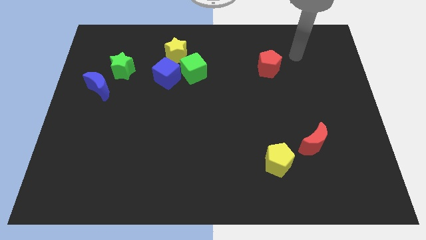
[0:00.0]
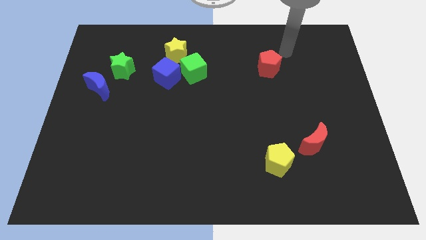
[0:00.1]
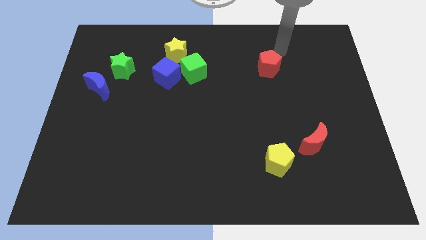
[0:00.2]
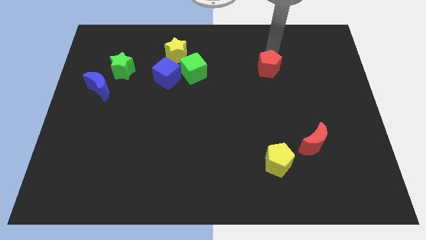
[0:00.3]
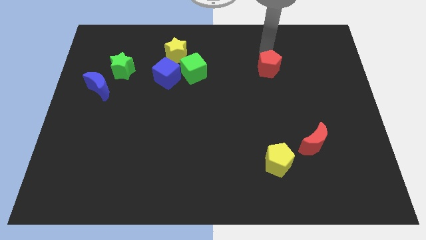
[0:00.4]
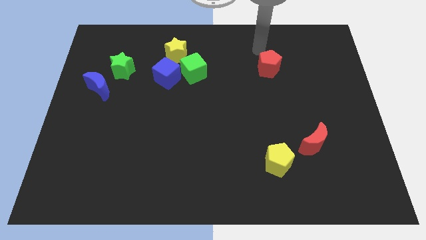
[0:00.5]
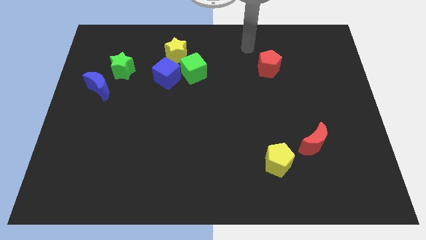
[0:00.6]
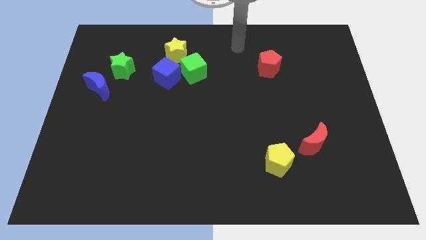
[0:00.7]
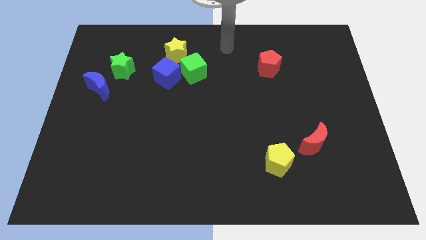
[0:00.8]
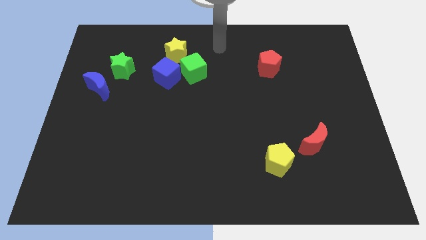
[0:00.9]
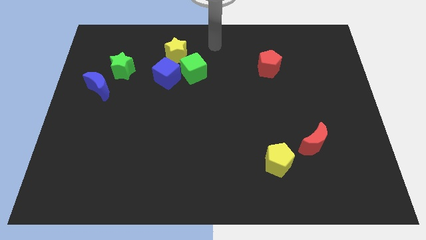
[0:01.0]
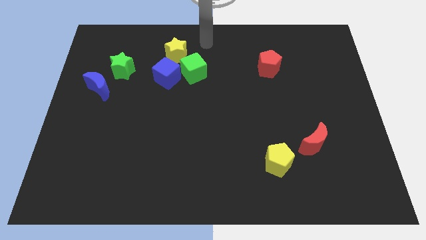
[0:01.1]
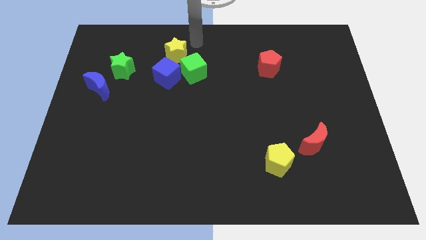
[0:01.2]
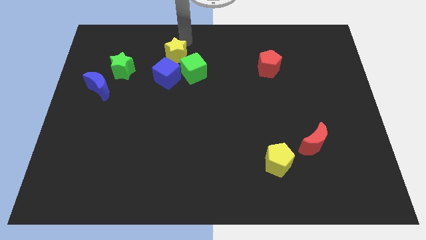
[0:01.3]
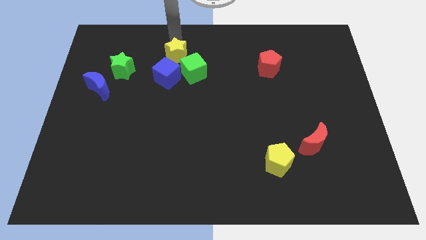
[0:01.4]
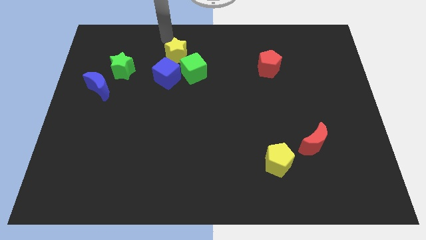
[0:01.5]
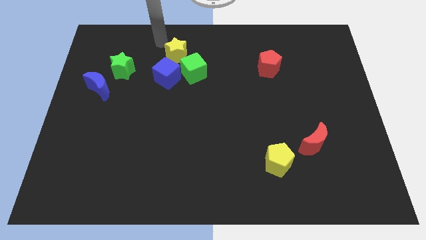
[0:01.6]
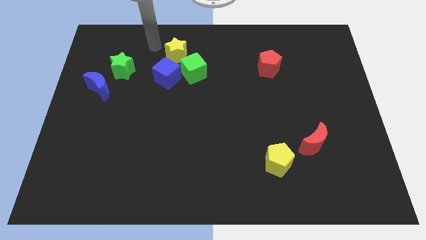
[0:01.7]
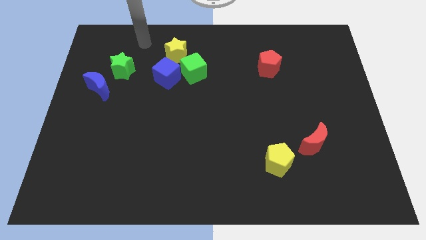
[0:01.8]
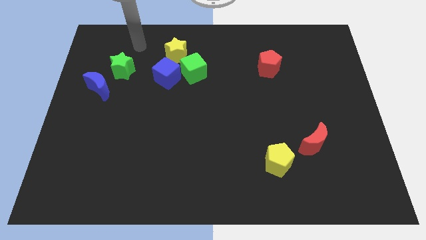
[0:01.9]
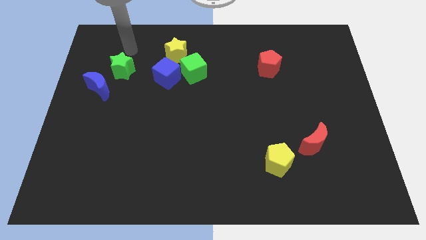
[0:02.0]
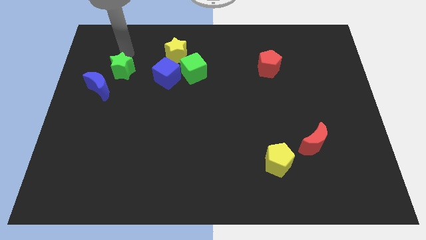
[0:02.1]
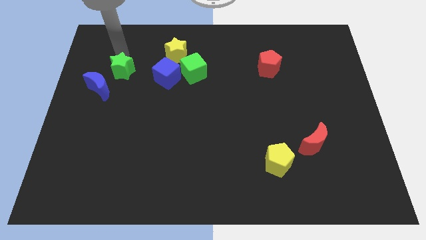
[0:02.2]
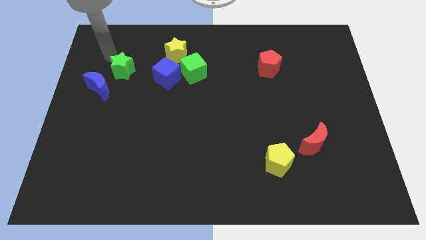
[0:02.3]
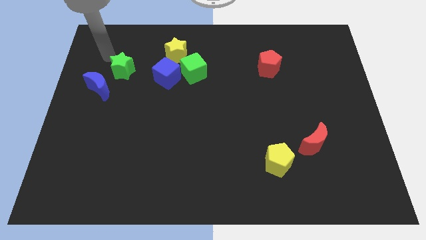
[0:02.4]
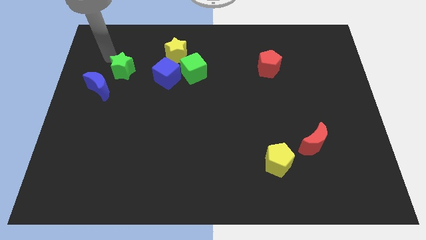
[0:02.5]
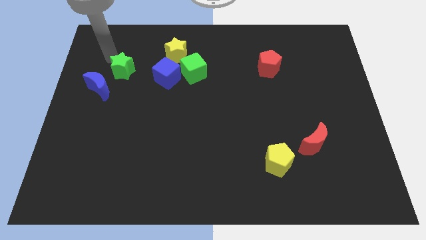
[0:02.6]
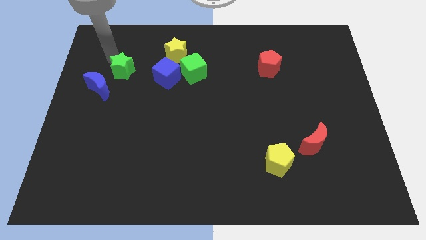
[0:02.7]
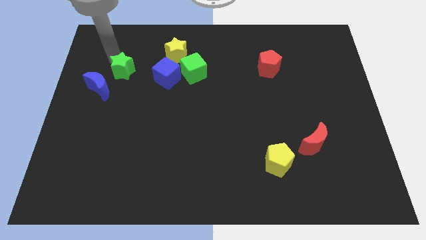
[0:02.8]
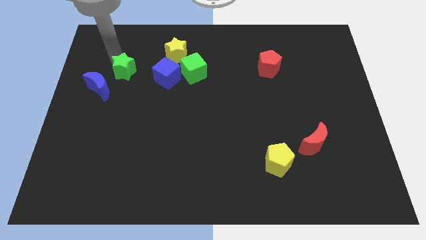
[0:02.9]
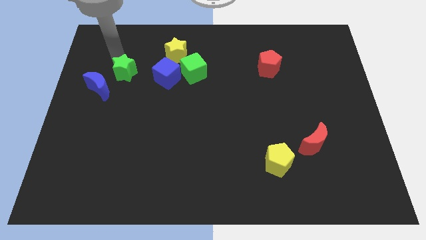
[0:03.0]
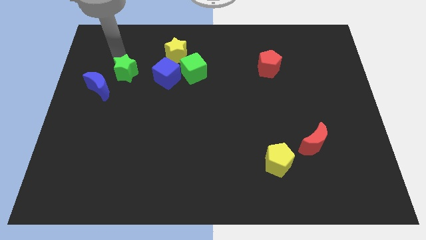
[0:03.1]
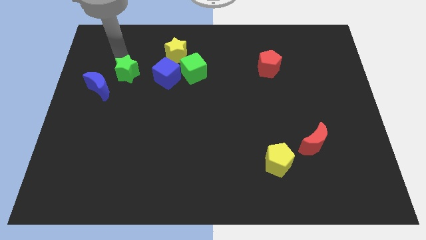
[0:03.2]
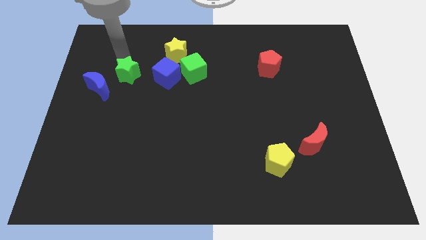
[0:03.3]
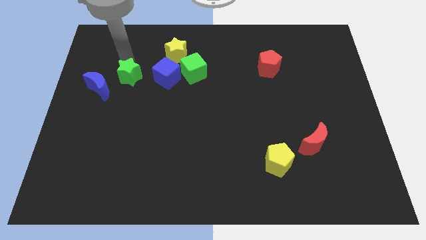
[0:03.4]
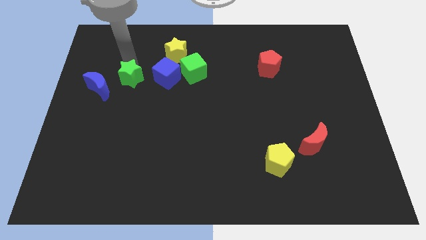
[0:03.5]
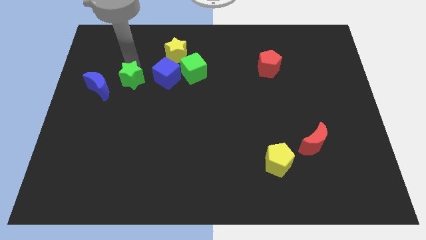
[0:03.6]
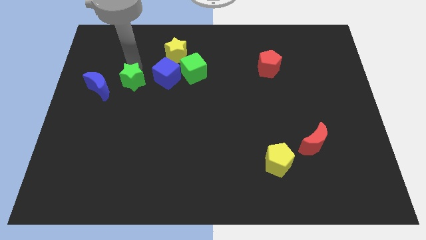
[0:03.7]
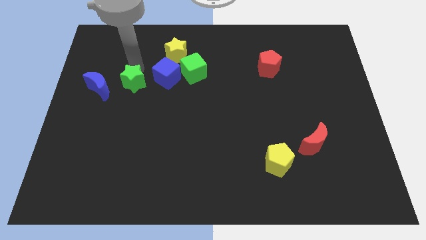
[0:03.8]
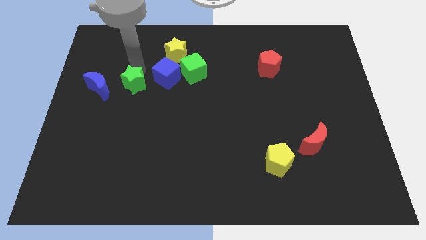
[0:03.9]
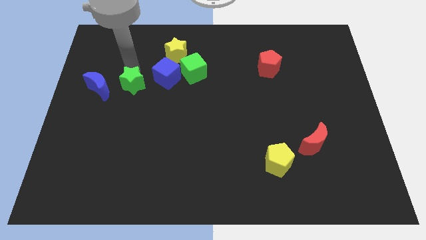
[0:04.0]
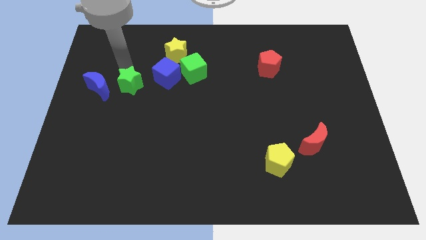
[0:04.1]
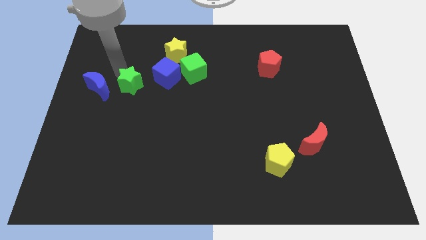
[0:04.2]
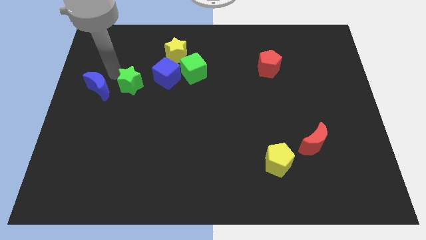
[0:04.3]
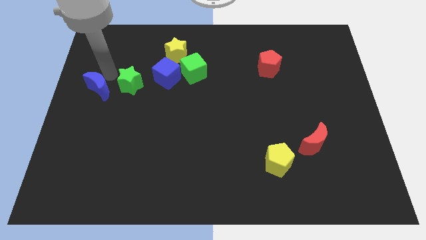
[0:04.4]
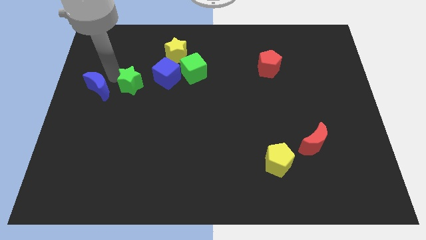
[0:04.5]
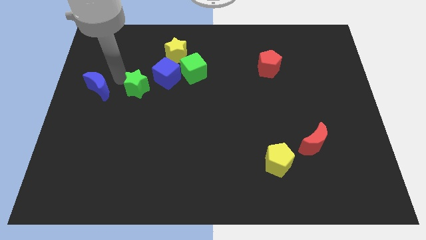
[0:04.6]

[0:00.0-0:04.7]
slide the green star downwards and to the right diagonally slightly

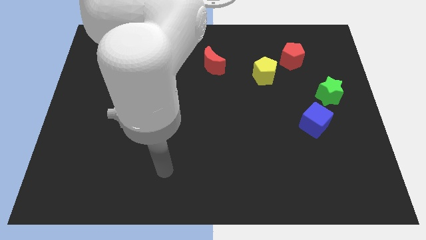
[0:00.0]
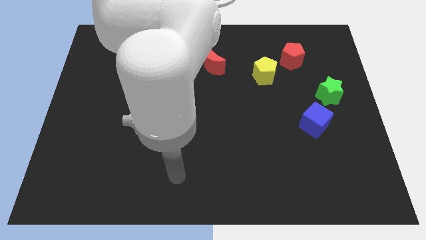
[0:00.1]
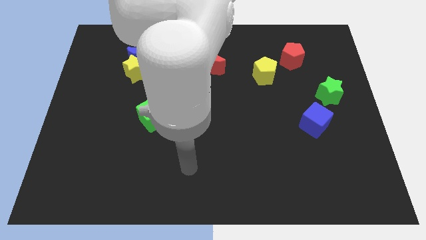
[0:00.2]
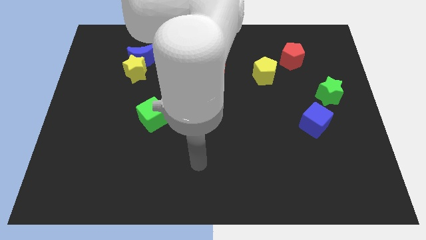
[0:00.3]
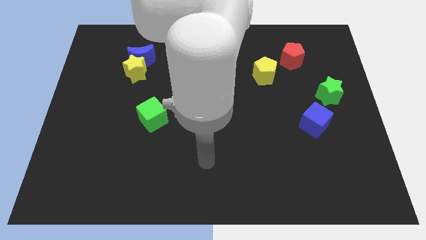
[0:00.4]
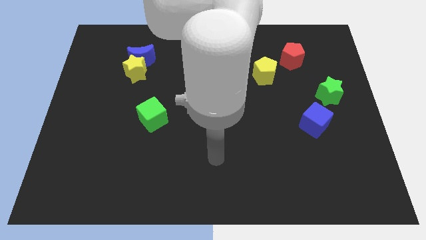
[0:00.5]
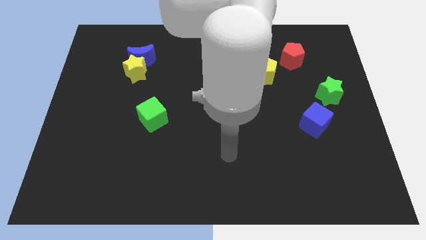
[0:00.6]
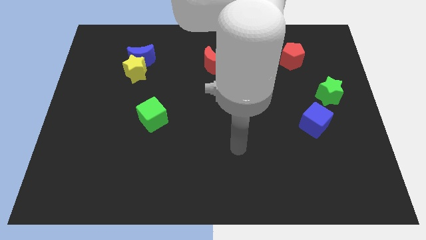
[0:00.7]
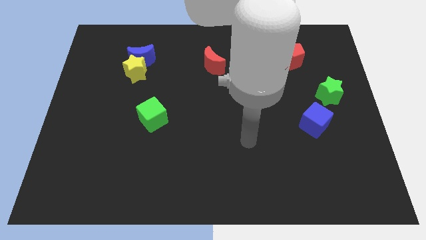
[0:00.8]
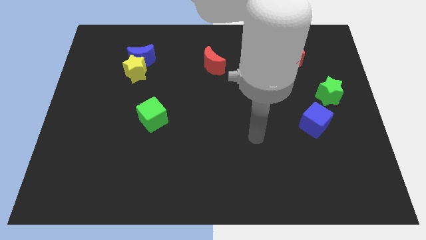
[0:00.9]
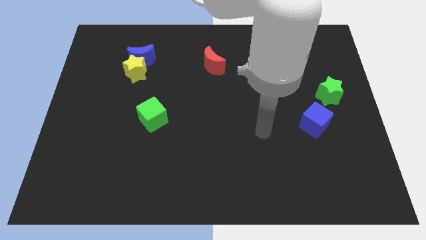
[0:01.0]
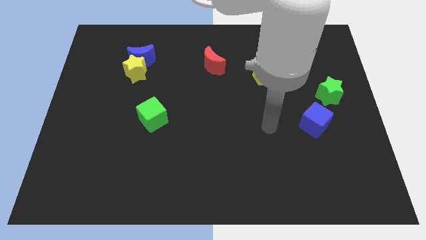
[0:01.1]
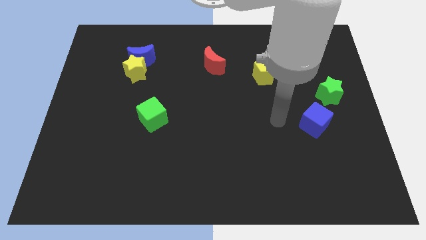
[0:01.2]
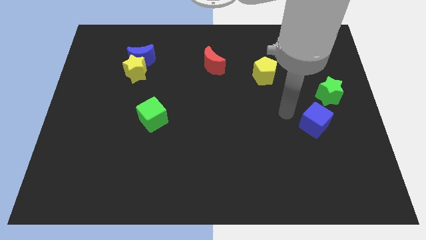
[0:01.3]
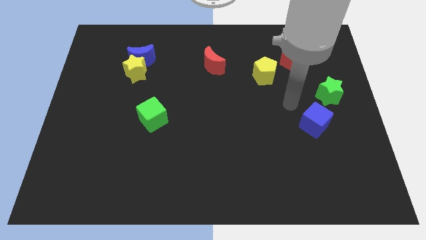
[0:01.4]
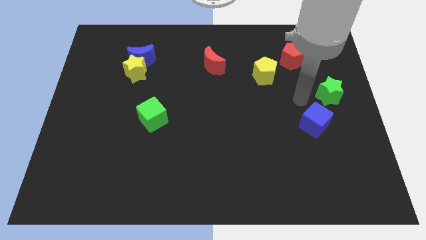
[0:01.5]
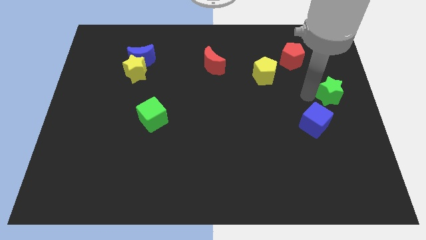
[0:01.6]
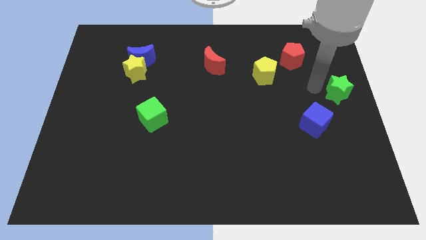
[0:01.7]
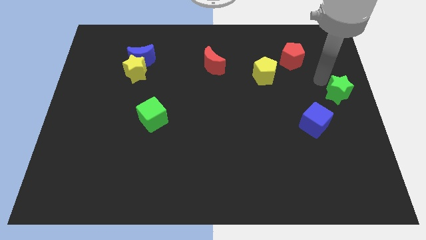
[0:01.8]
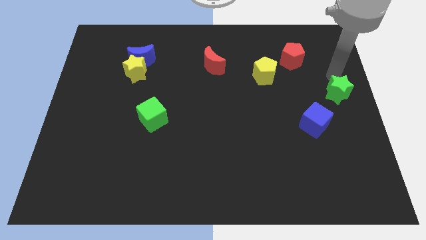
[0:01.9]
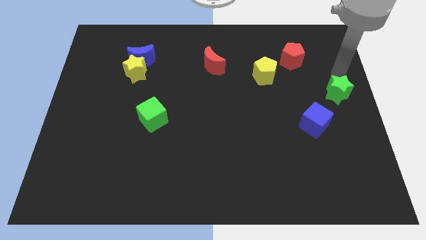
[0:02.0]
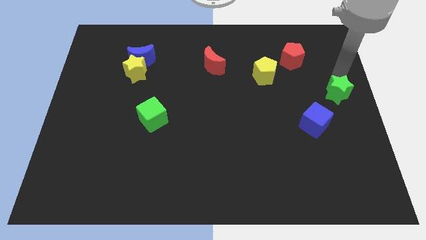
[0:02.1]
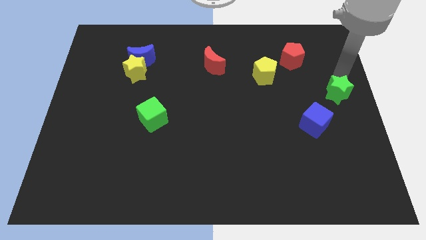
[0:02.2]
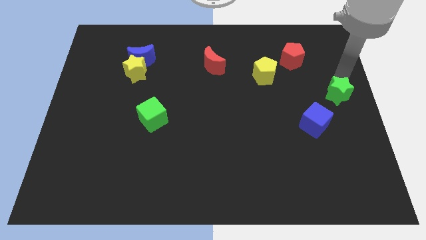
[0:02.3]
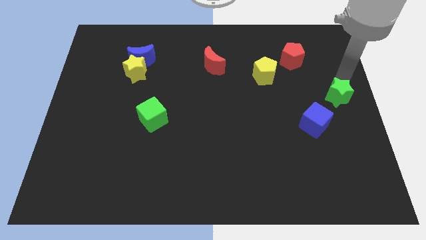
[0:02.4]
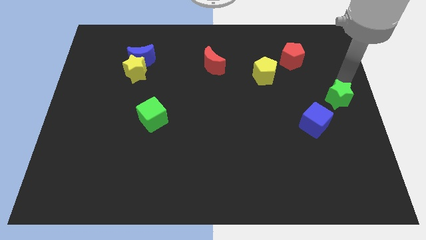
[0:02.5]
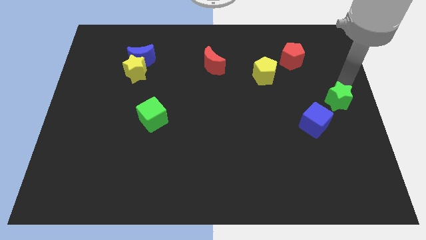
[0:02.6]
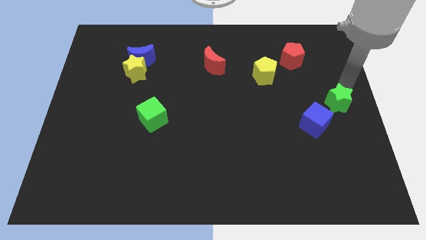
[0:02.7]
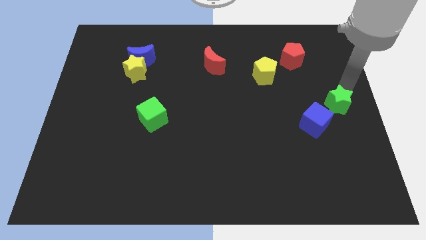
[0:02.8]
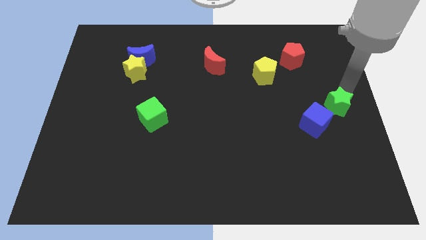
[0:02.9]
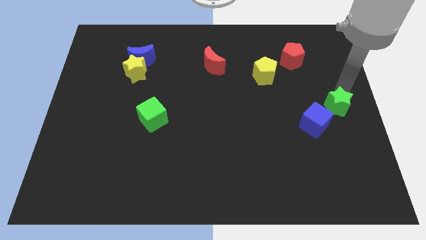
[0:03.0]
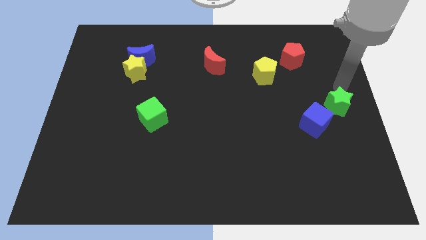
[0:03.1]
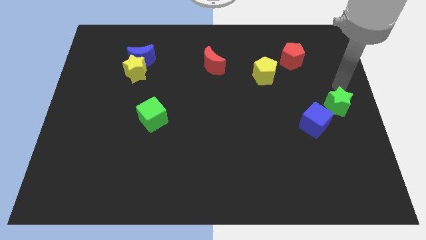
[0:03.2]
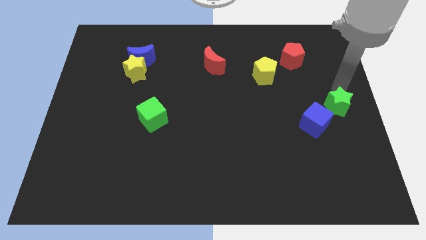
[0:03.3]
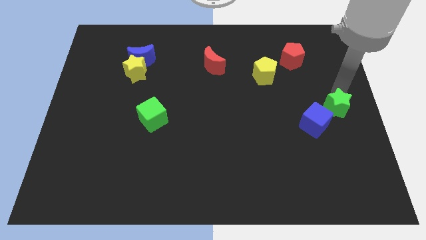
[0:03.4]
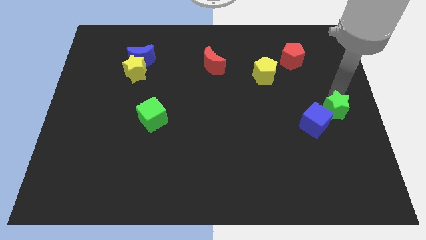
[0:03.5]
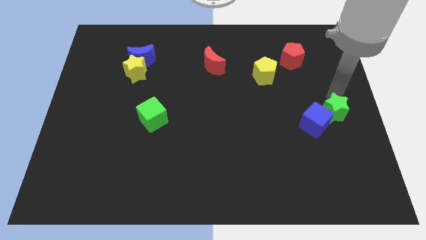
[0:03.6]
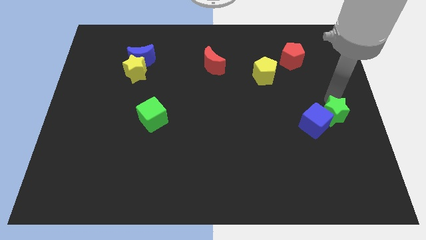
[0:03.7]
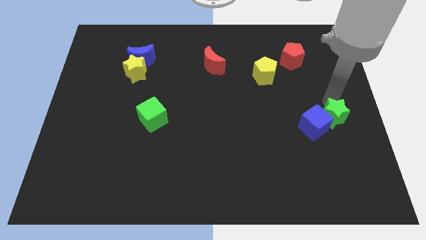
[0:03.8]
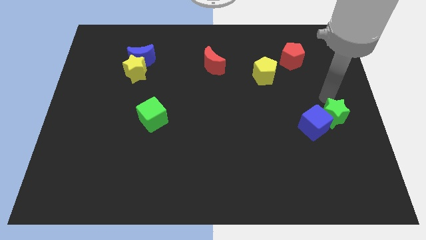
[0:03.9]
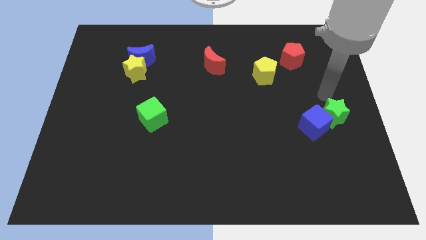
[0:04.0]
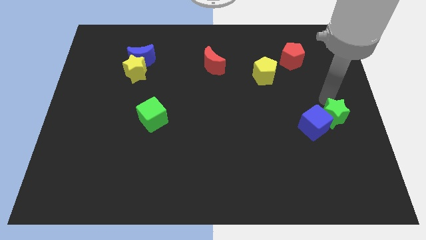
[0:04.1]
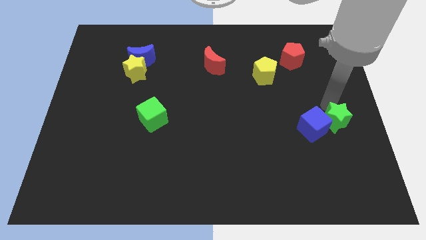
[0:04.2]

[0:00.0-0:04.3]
push the green star a bit down
